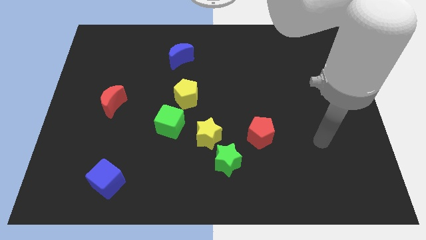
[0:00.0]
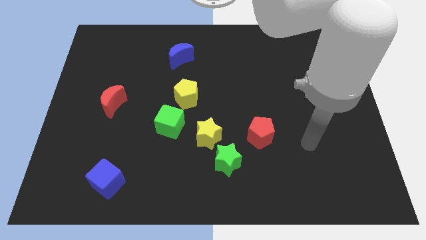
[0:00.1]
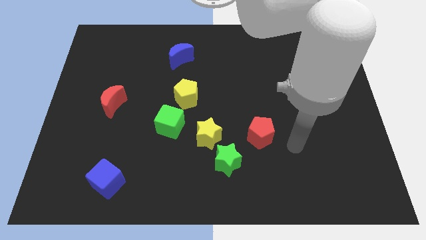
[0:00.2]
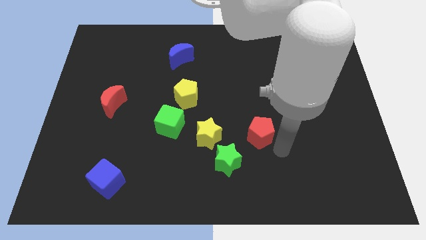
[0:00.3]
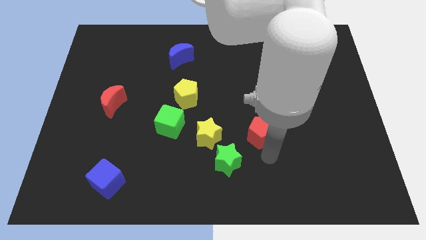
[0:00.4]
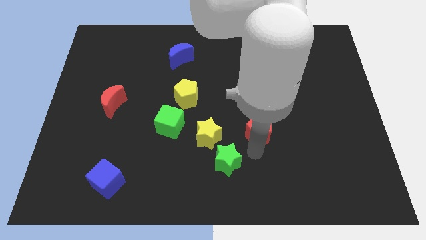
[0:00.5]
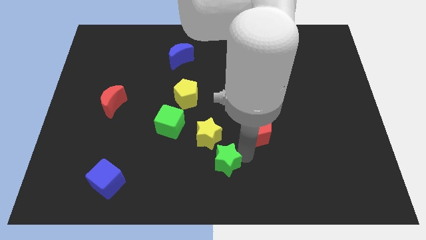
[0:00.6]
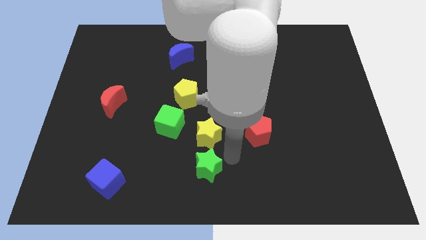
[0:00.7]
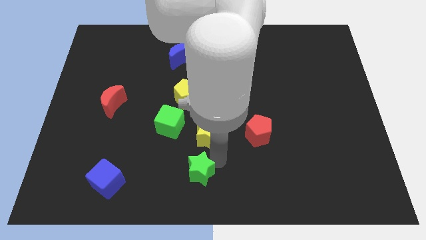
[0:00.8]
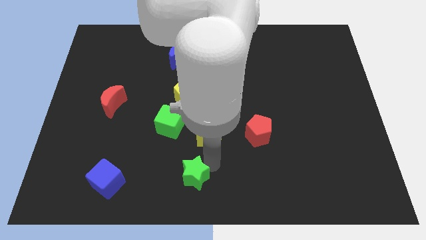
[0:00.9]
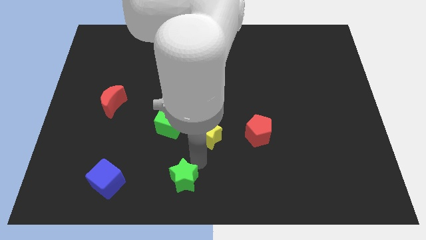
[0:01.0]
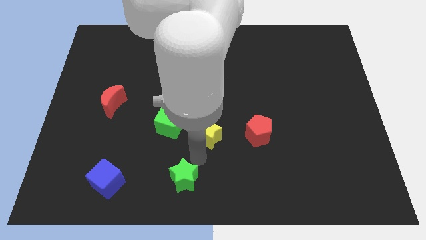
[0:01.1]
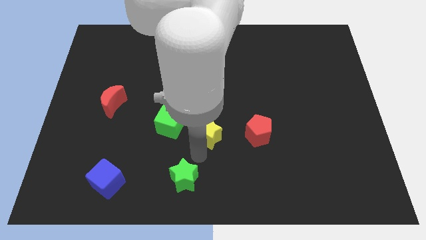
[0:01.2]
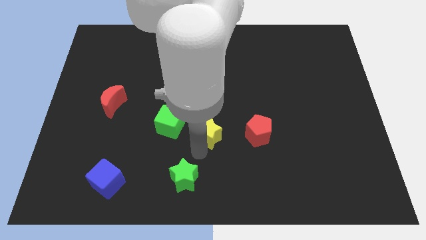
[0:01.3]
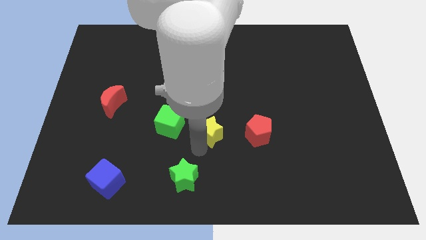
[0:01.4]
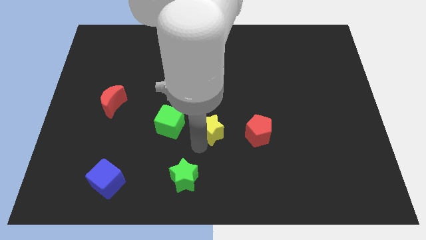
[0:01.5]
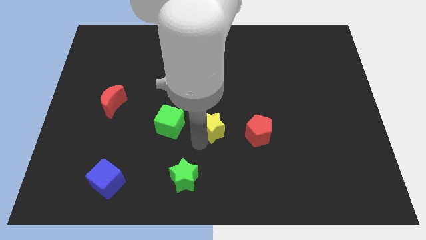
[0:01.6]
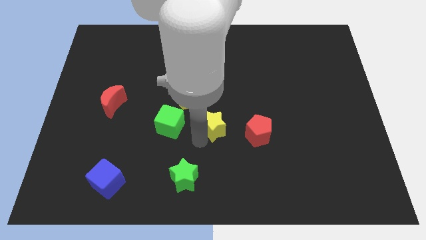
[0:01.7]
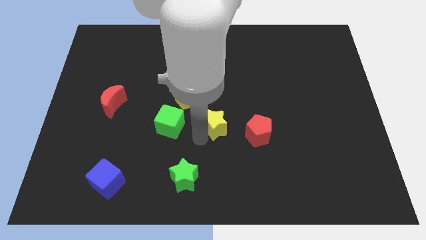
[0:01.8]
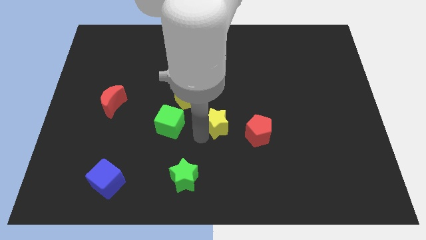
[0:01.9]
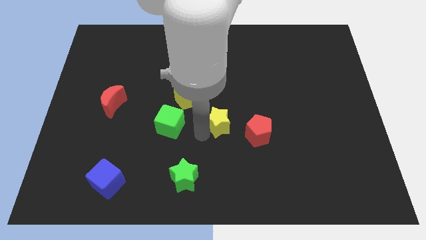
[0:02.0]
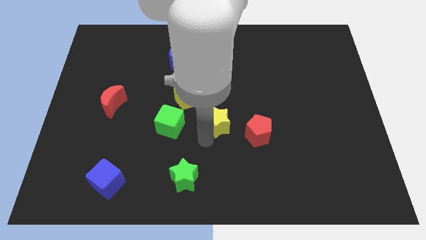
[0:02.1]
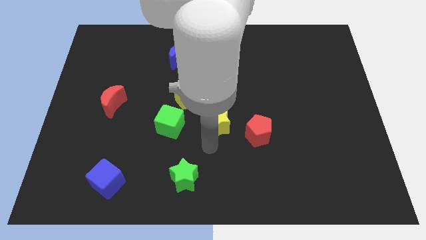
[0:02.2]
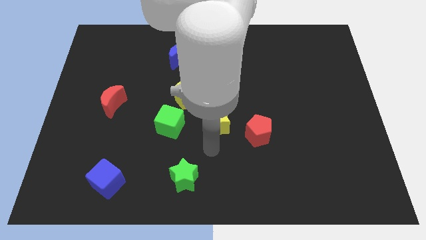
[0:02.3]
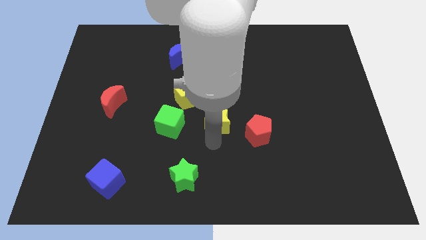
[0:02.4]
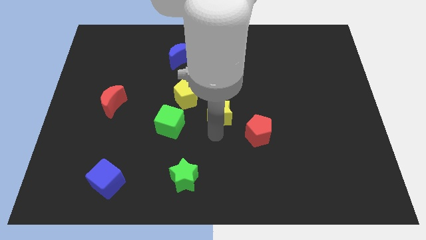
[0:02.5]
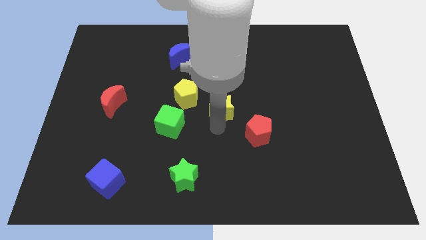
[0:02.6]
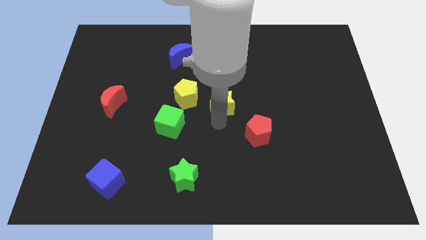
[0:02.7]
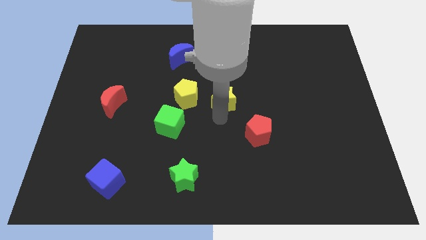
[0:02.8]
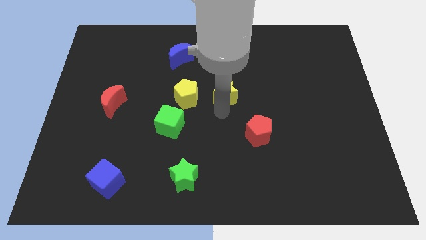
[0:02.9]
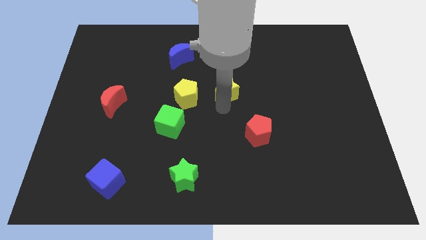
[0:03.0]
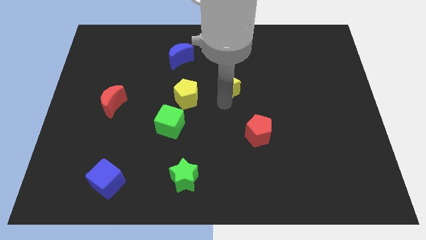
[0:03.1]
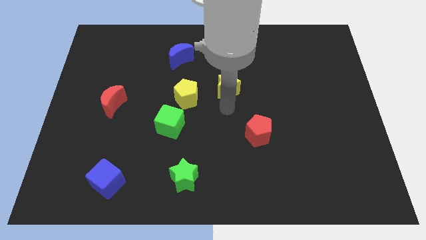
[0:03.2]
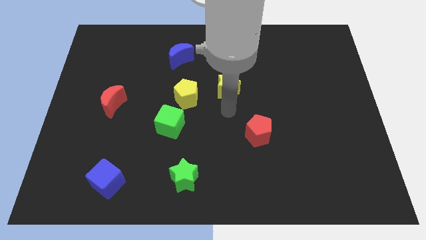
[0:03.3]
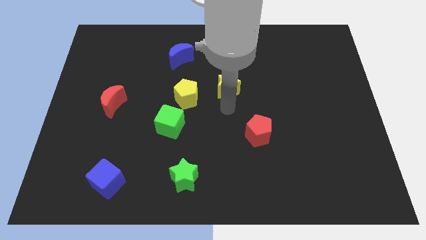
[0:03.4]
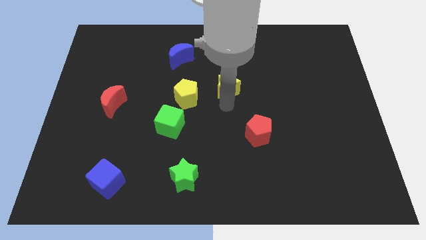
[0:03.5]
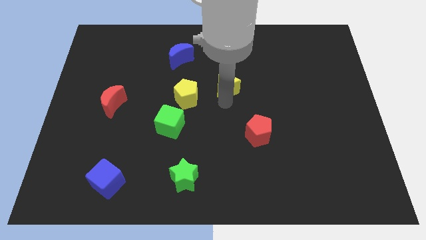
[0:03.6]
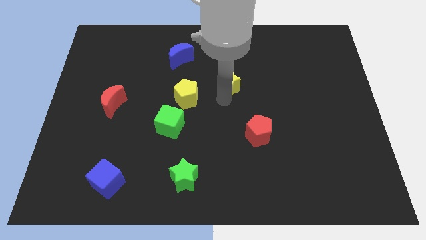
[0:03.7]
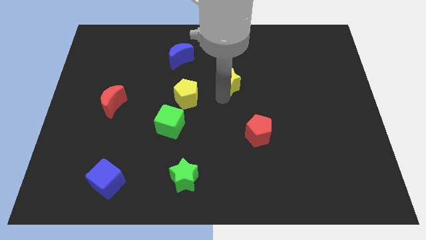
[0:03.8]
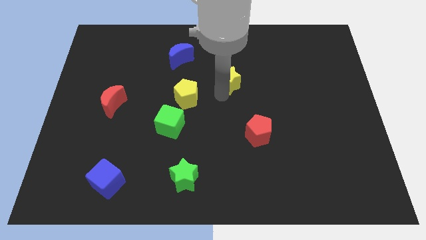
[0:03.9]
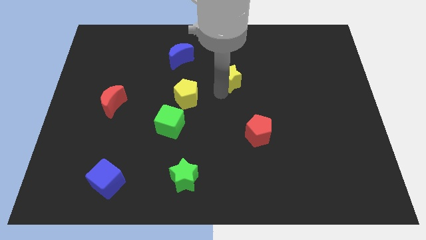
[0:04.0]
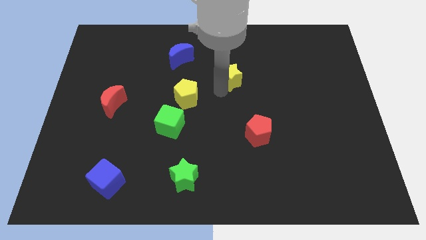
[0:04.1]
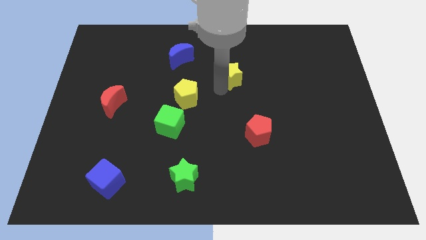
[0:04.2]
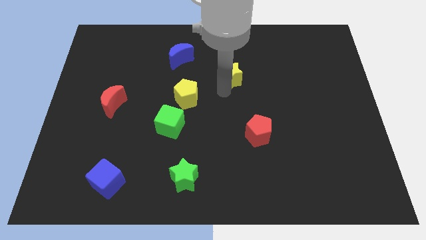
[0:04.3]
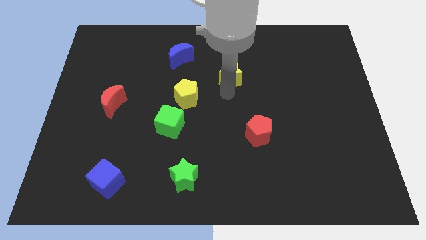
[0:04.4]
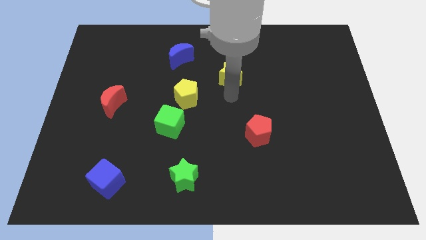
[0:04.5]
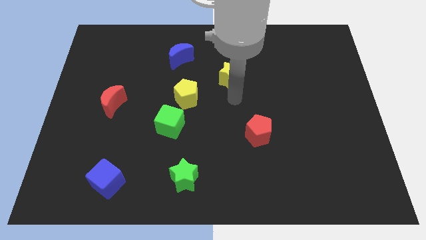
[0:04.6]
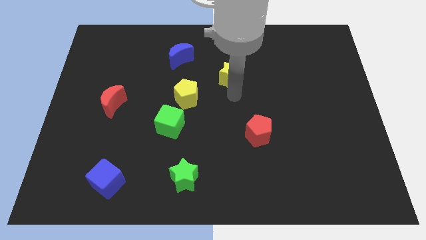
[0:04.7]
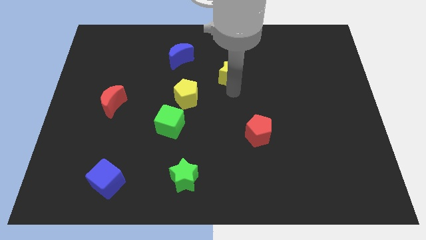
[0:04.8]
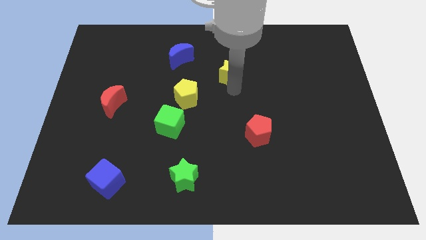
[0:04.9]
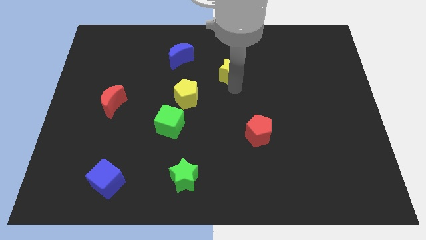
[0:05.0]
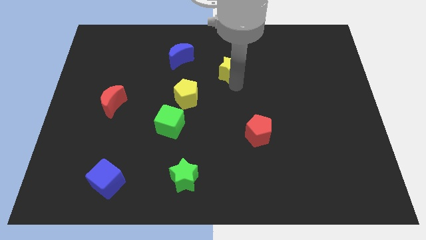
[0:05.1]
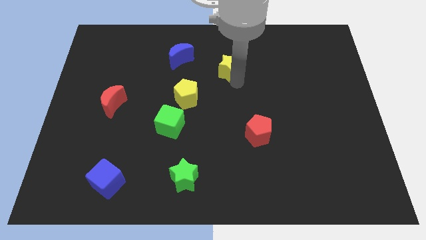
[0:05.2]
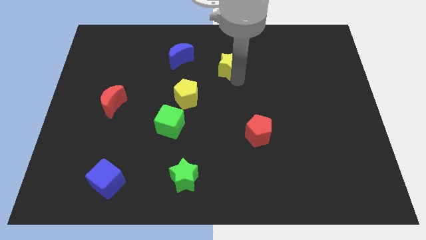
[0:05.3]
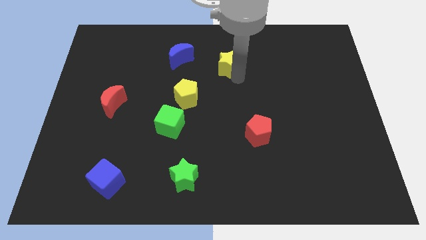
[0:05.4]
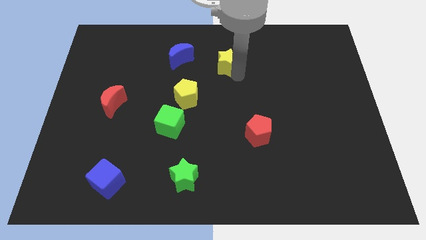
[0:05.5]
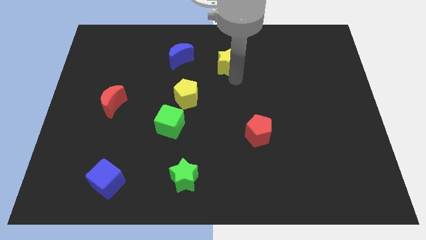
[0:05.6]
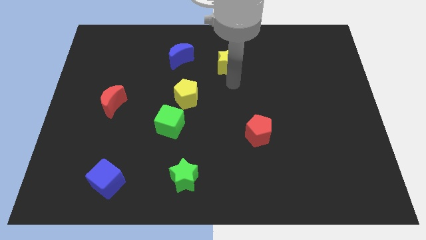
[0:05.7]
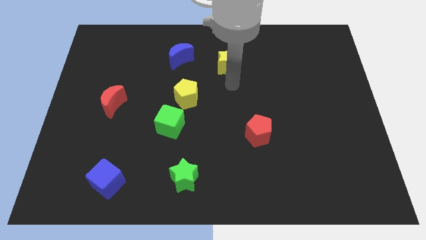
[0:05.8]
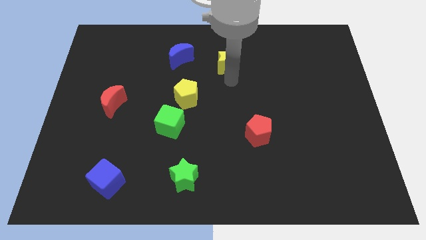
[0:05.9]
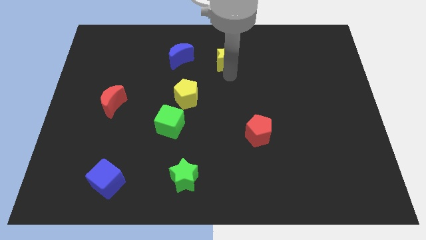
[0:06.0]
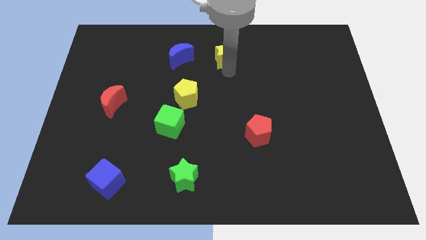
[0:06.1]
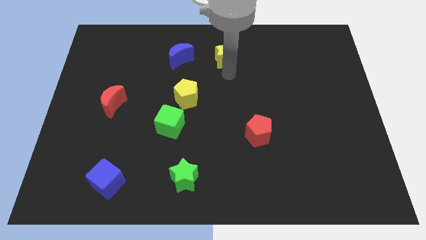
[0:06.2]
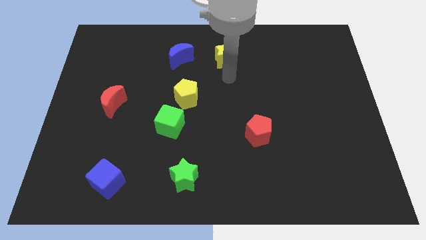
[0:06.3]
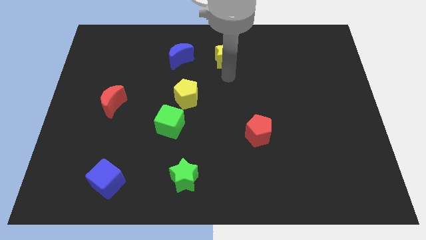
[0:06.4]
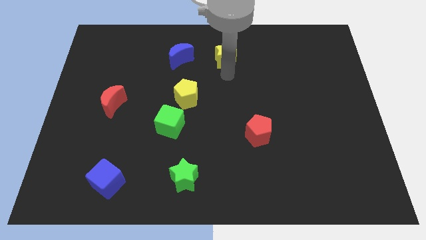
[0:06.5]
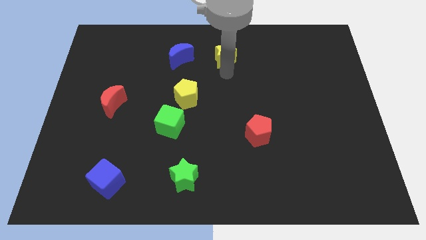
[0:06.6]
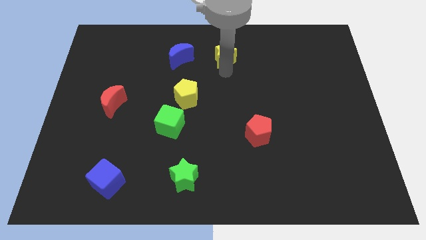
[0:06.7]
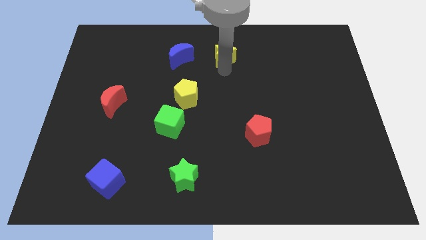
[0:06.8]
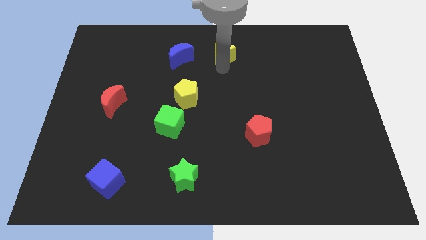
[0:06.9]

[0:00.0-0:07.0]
move the yellow star to the top side
